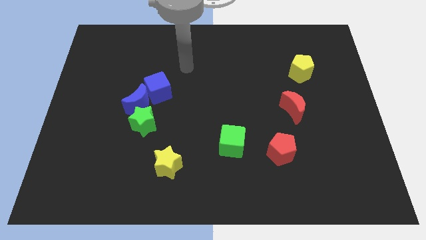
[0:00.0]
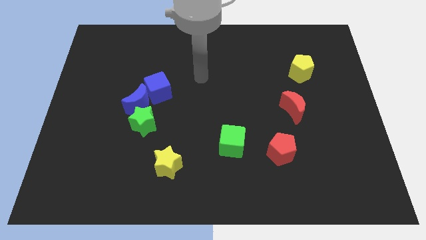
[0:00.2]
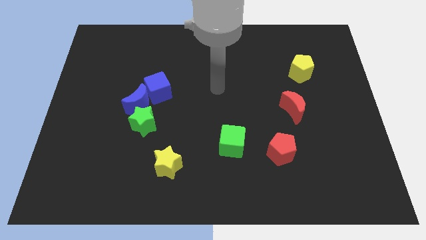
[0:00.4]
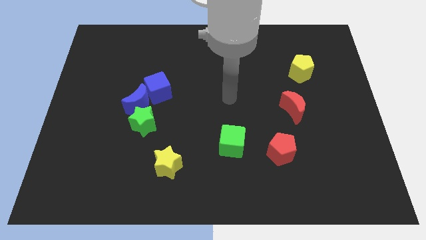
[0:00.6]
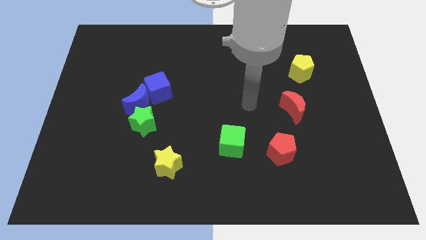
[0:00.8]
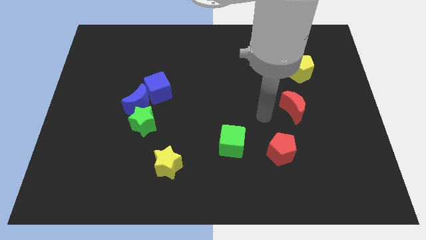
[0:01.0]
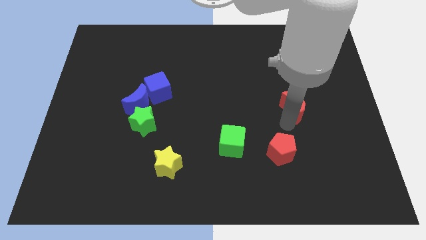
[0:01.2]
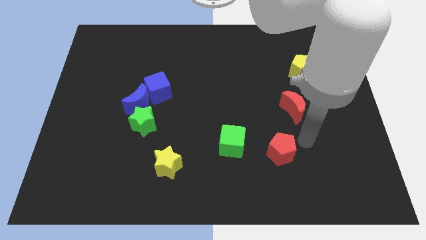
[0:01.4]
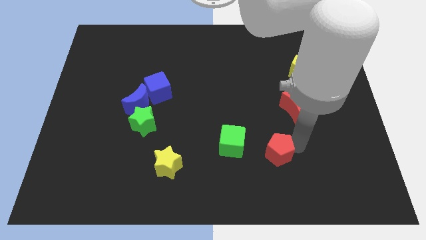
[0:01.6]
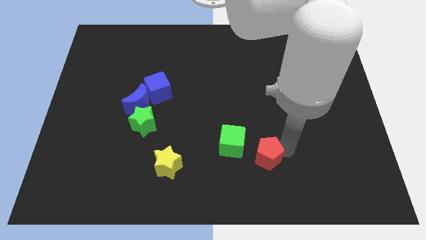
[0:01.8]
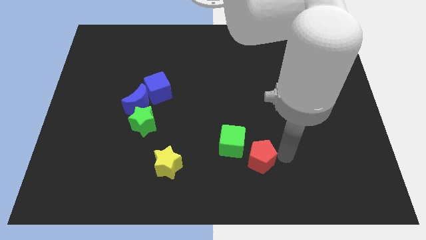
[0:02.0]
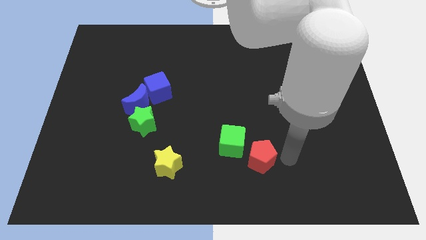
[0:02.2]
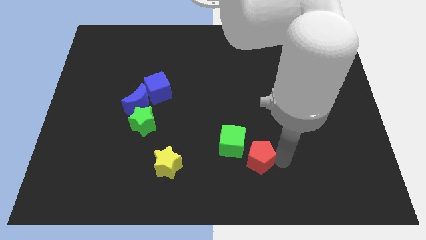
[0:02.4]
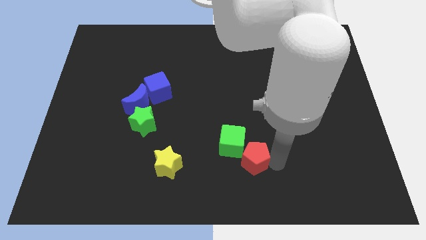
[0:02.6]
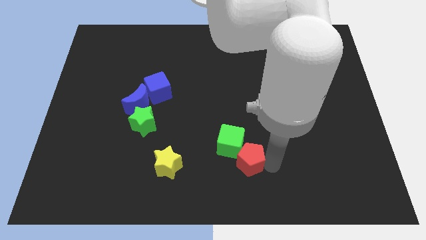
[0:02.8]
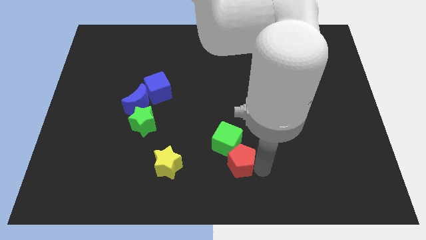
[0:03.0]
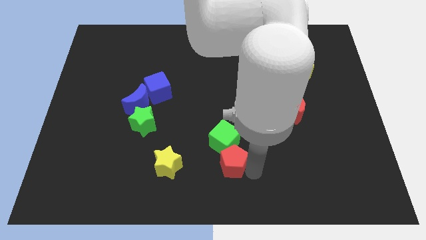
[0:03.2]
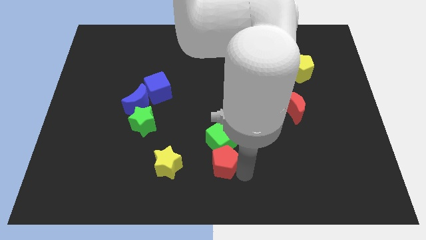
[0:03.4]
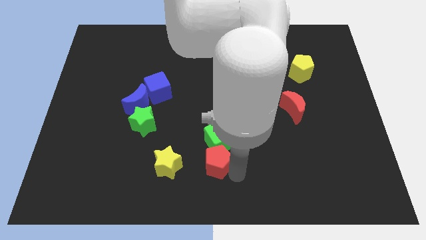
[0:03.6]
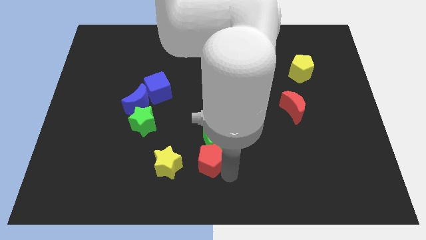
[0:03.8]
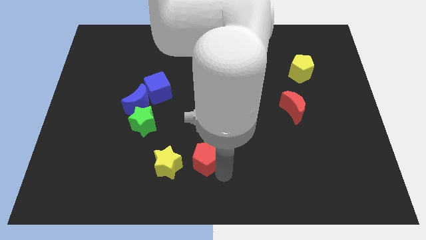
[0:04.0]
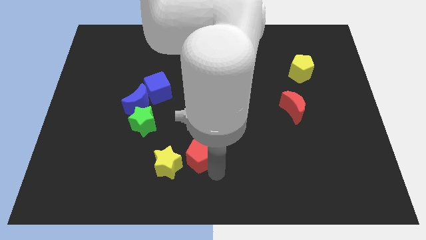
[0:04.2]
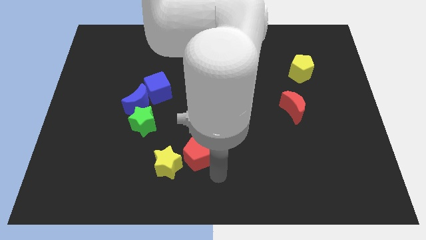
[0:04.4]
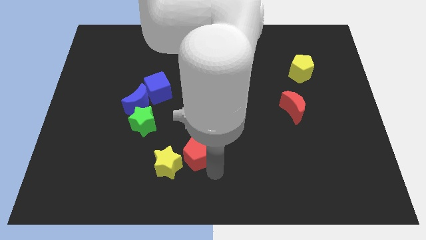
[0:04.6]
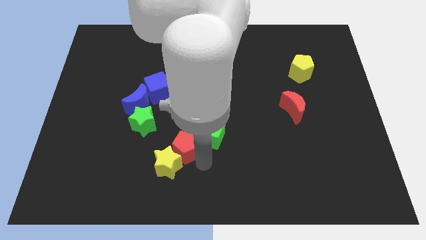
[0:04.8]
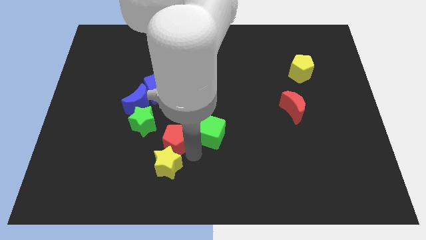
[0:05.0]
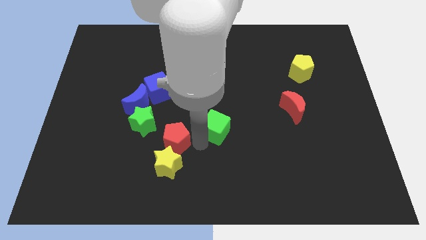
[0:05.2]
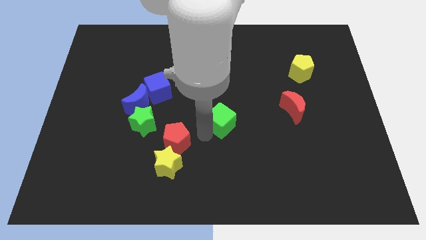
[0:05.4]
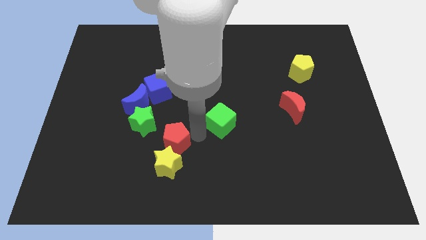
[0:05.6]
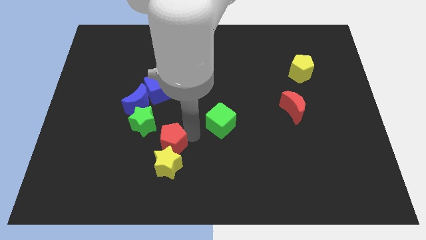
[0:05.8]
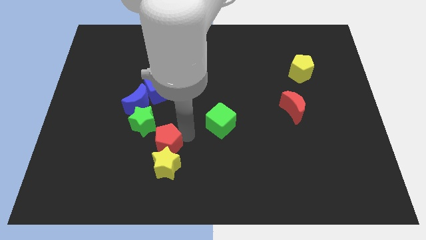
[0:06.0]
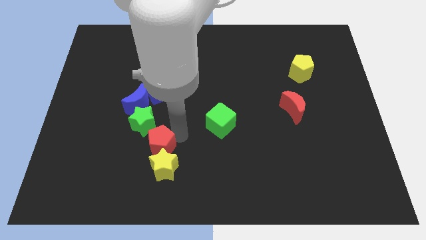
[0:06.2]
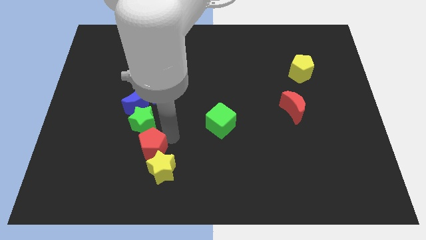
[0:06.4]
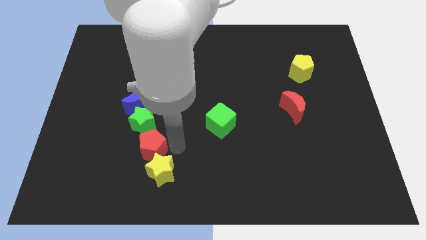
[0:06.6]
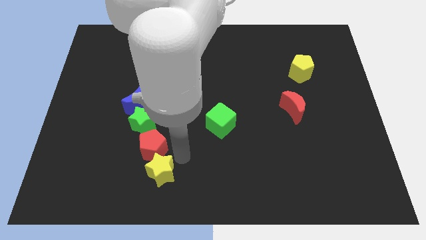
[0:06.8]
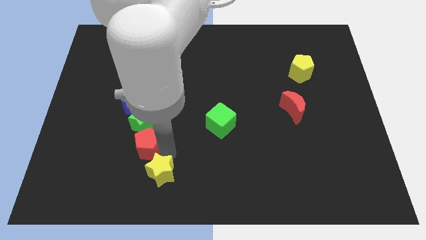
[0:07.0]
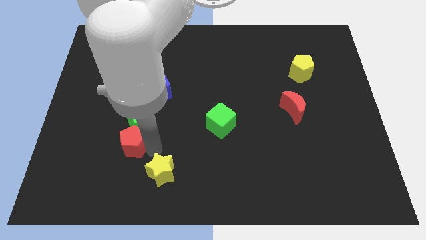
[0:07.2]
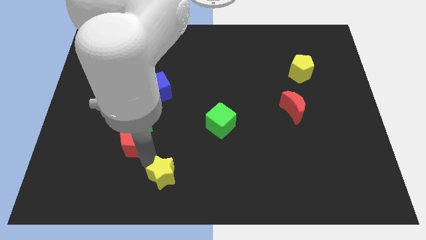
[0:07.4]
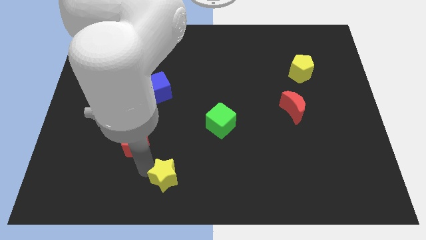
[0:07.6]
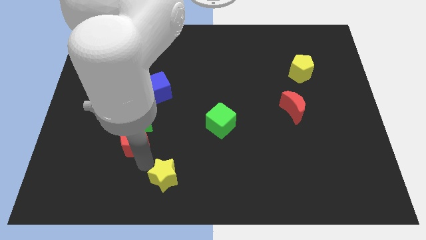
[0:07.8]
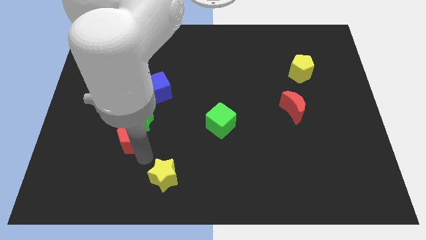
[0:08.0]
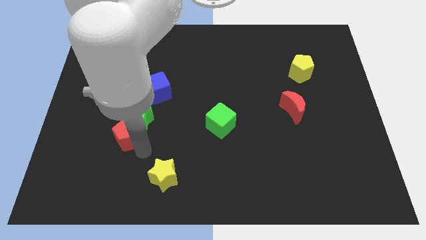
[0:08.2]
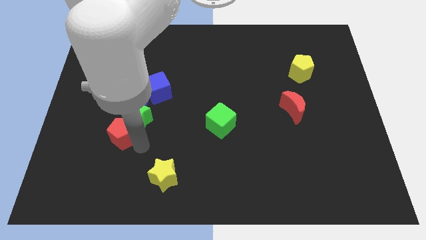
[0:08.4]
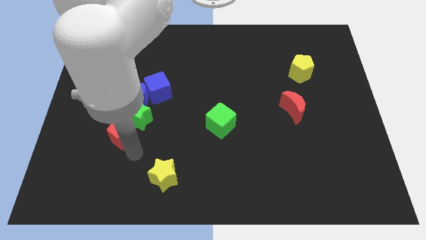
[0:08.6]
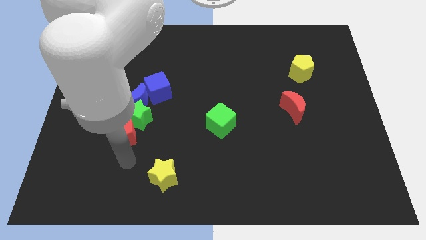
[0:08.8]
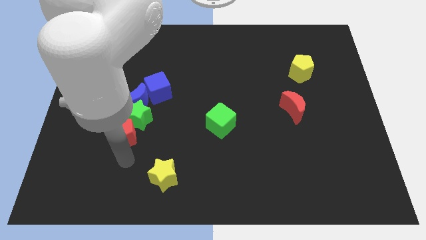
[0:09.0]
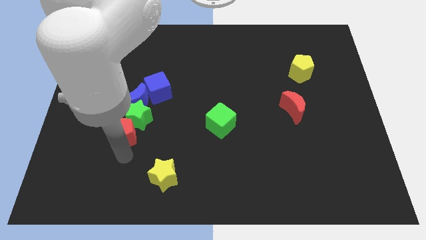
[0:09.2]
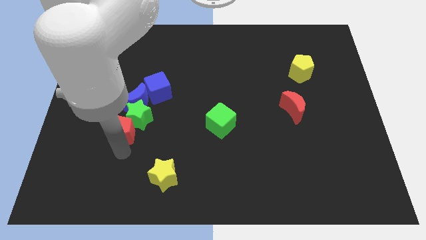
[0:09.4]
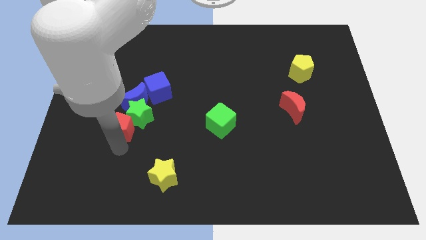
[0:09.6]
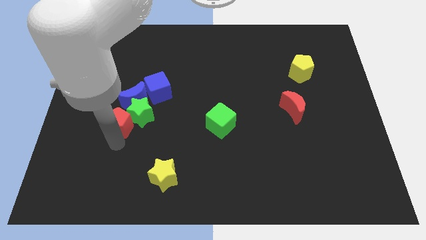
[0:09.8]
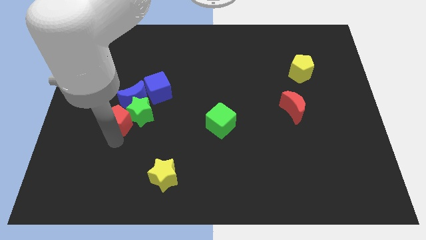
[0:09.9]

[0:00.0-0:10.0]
slide the red pentagon diagonally down and to the left of the blue cube

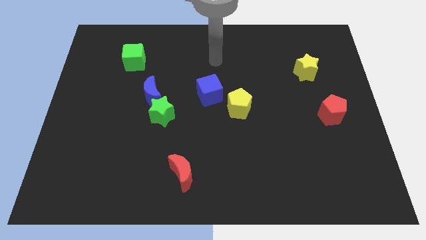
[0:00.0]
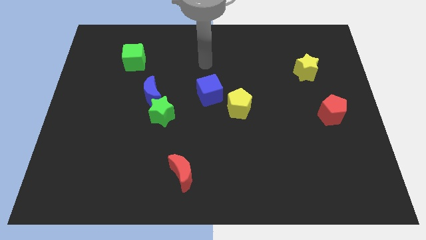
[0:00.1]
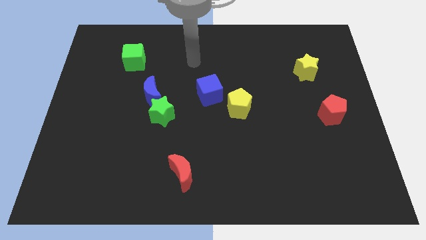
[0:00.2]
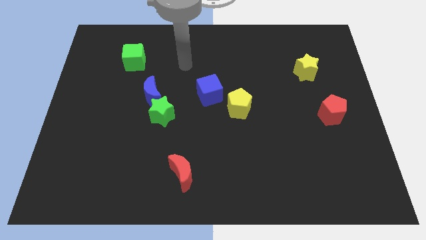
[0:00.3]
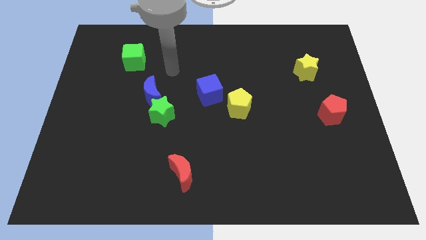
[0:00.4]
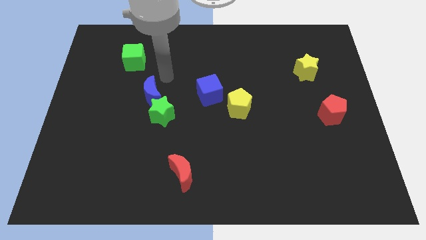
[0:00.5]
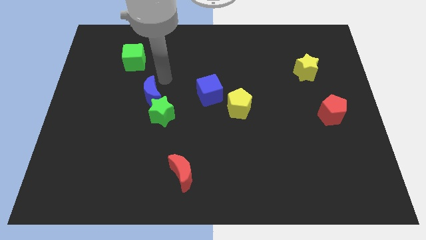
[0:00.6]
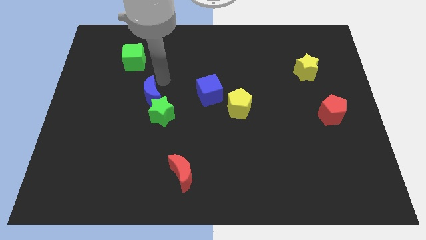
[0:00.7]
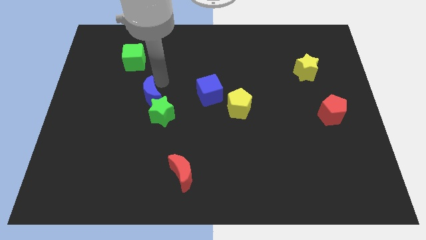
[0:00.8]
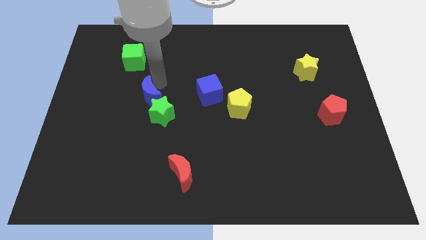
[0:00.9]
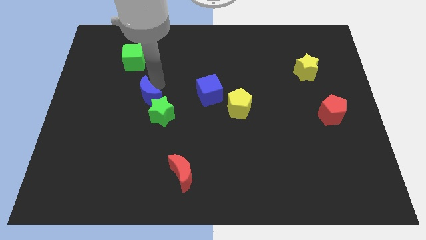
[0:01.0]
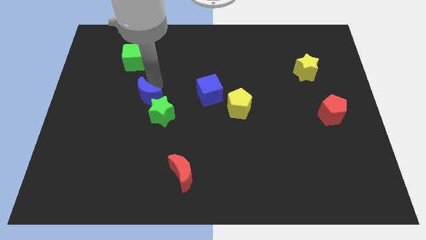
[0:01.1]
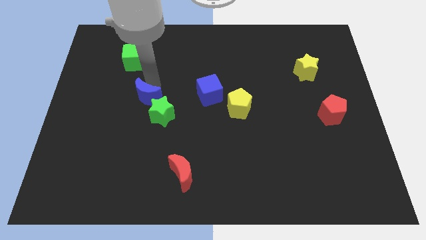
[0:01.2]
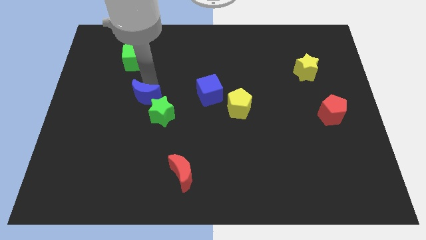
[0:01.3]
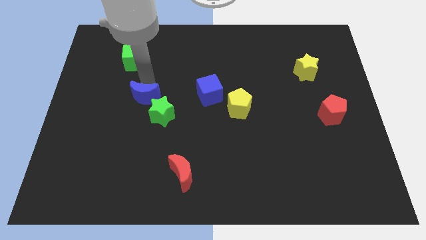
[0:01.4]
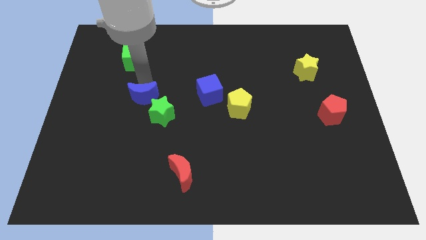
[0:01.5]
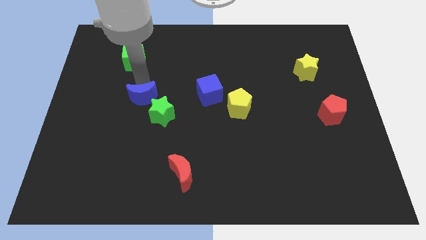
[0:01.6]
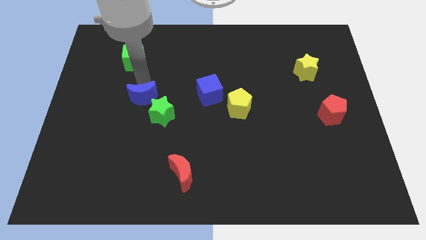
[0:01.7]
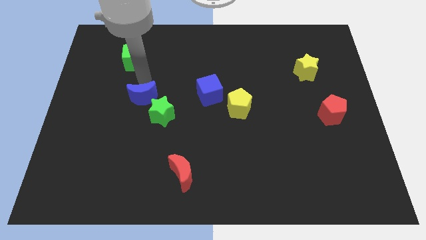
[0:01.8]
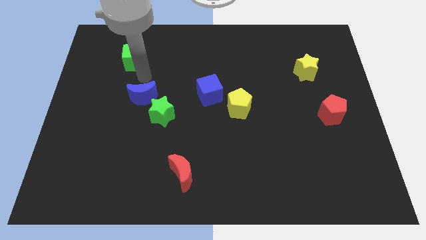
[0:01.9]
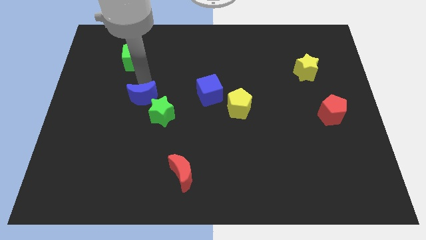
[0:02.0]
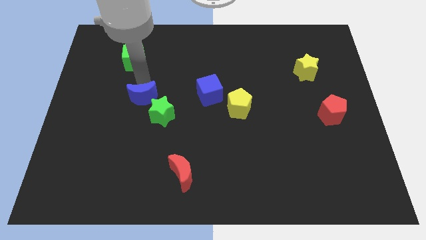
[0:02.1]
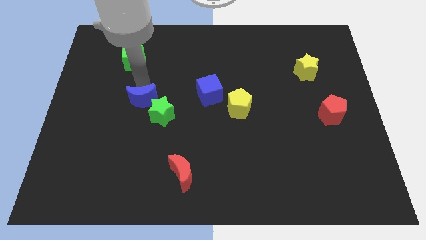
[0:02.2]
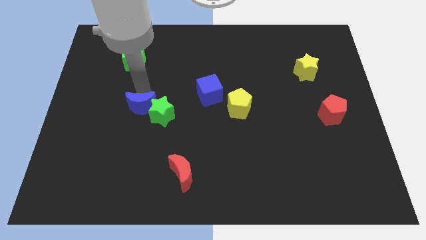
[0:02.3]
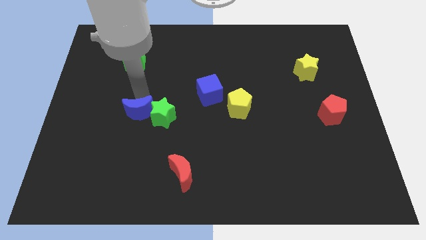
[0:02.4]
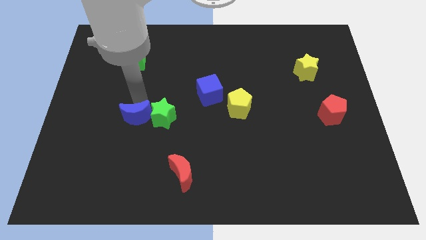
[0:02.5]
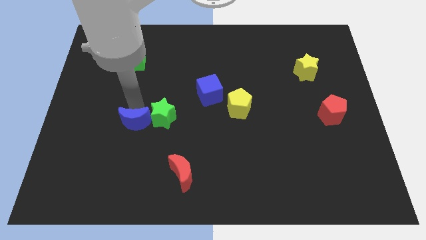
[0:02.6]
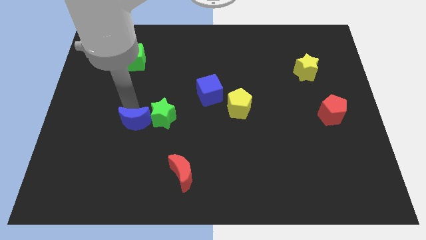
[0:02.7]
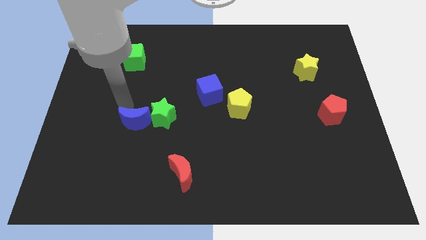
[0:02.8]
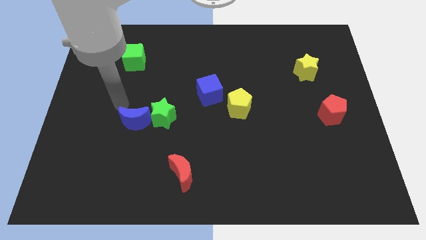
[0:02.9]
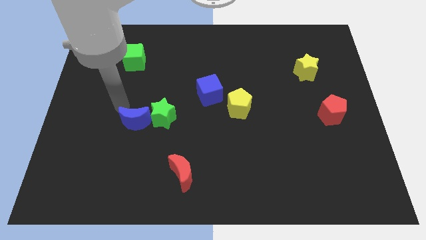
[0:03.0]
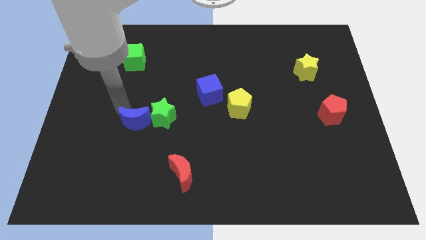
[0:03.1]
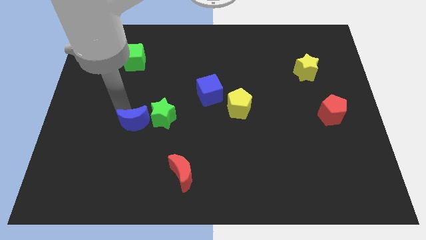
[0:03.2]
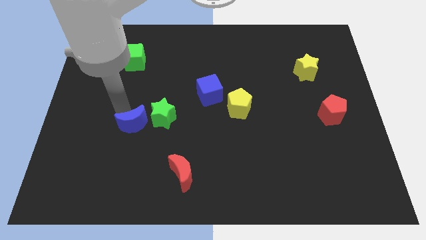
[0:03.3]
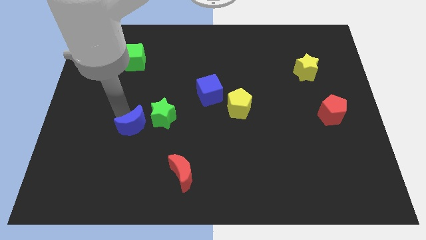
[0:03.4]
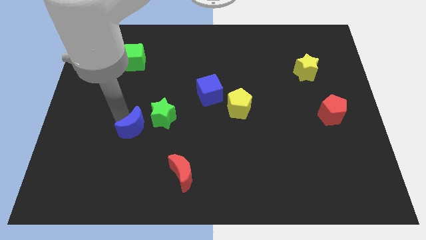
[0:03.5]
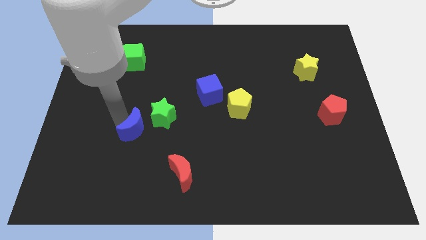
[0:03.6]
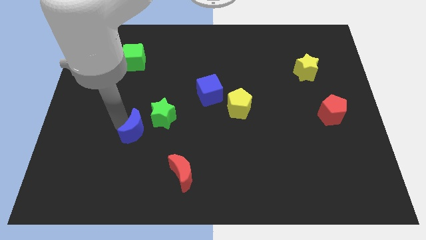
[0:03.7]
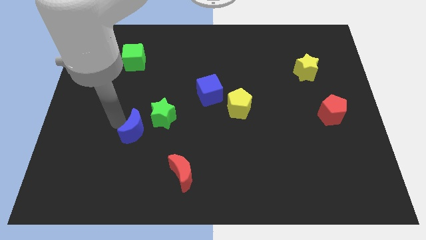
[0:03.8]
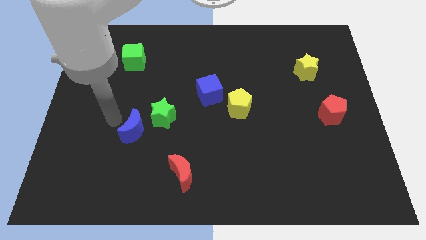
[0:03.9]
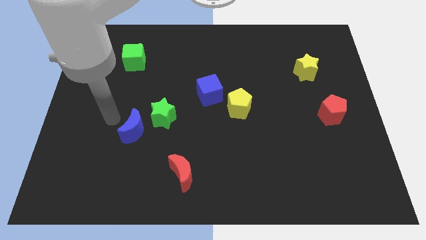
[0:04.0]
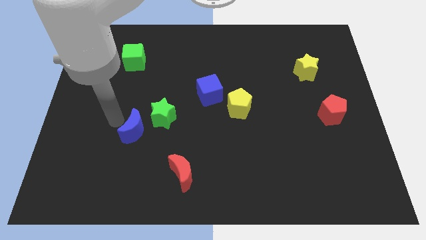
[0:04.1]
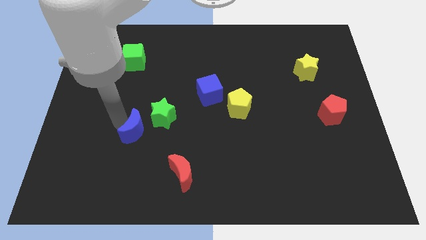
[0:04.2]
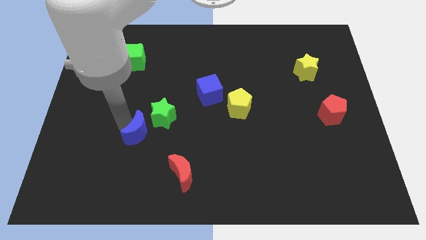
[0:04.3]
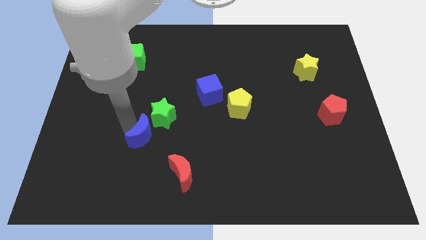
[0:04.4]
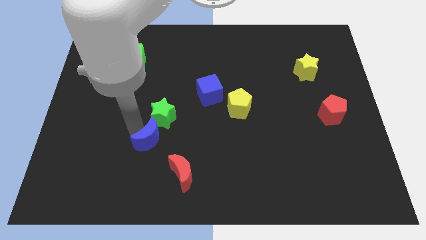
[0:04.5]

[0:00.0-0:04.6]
put the blue moon diagonally up and to the left of the red moon
